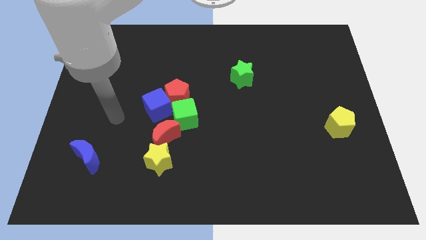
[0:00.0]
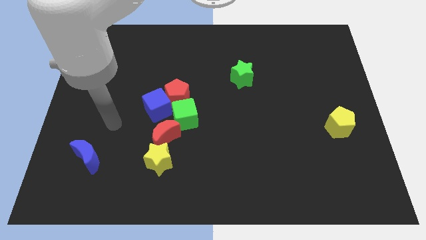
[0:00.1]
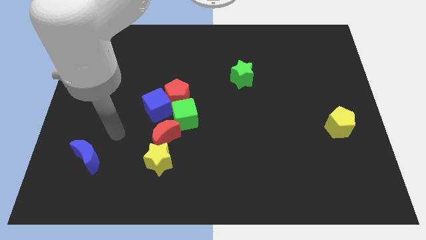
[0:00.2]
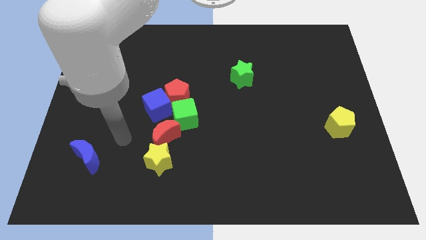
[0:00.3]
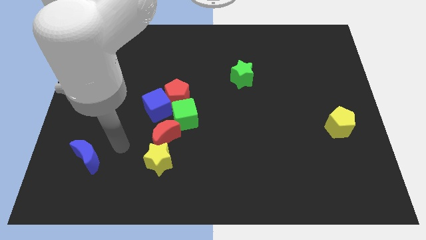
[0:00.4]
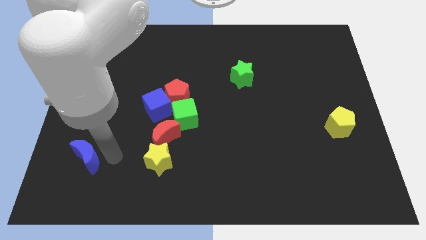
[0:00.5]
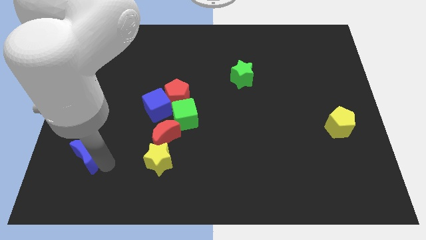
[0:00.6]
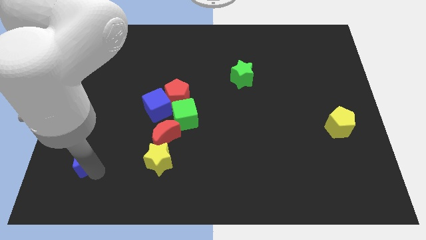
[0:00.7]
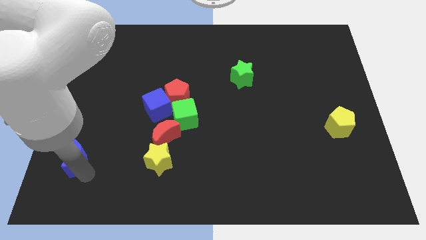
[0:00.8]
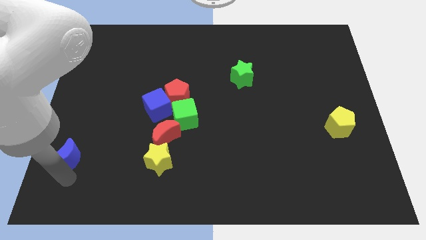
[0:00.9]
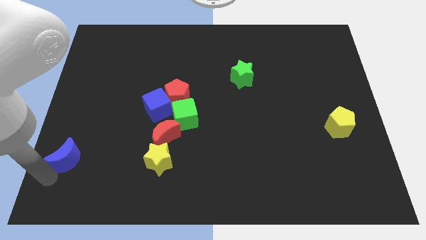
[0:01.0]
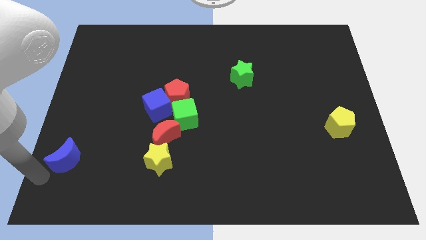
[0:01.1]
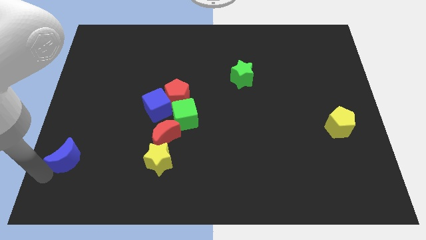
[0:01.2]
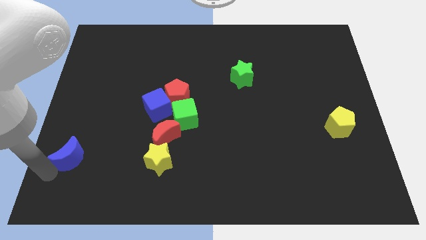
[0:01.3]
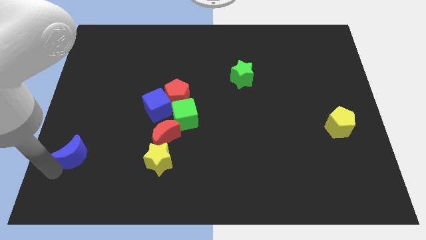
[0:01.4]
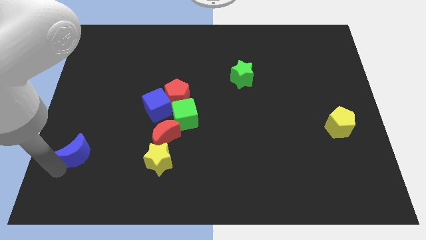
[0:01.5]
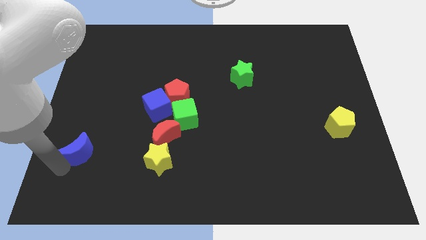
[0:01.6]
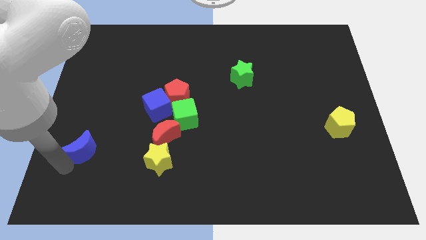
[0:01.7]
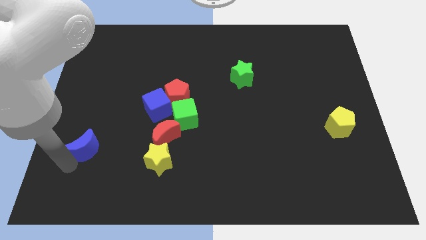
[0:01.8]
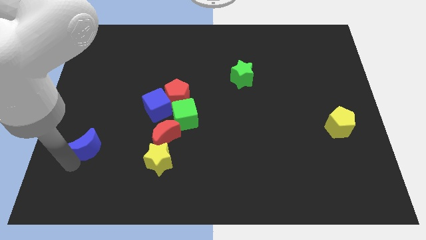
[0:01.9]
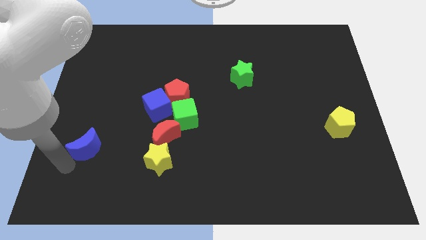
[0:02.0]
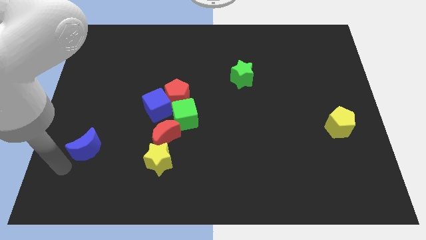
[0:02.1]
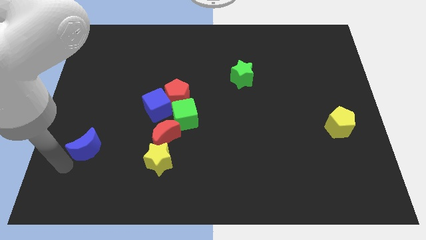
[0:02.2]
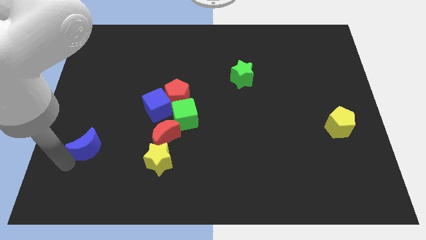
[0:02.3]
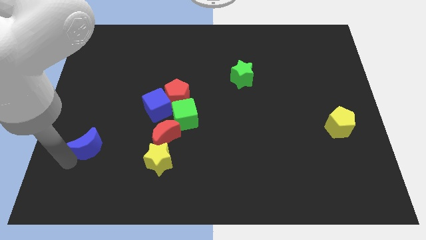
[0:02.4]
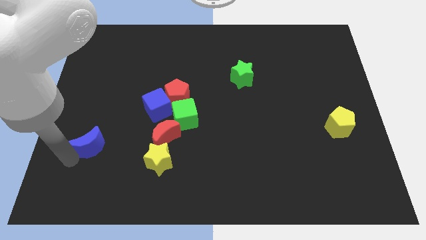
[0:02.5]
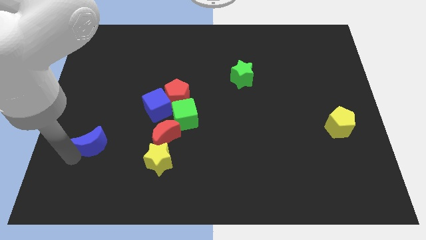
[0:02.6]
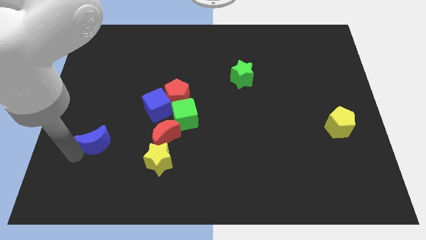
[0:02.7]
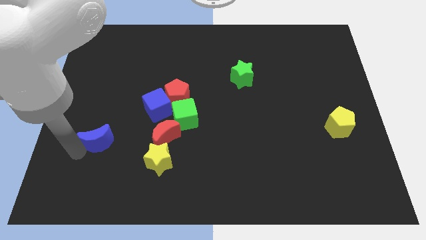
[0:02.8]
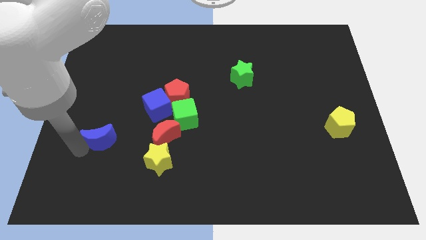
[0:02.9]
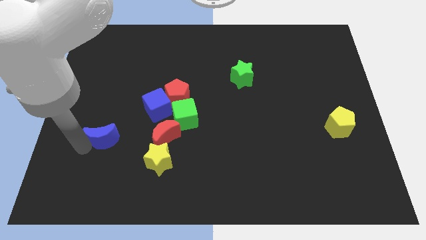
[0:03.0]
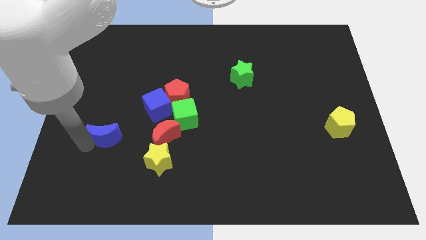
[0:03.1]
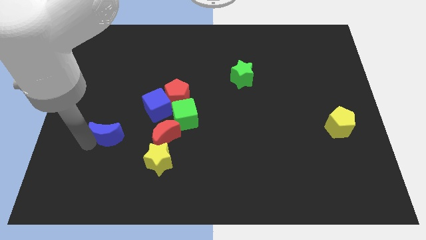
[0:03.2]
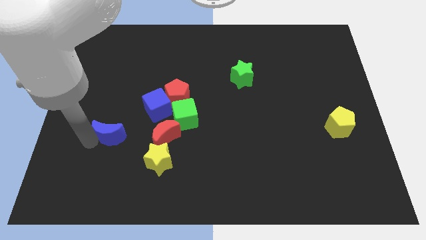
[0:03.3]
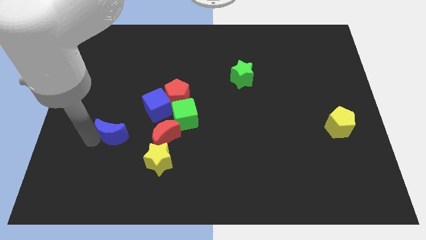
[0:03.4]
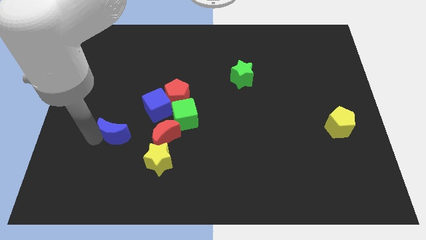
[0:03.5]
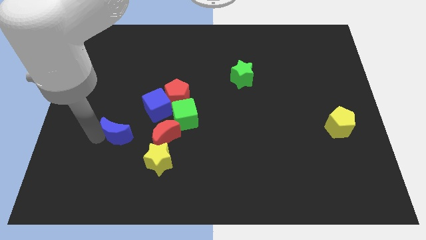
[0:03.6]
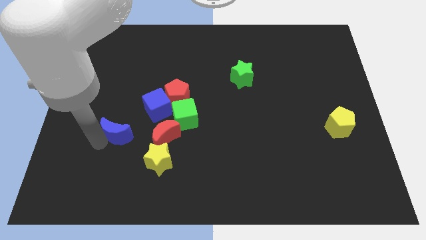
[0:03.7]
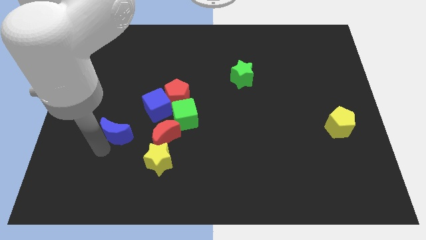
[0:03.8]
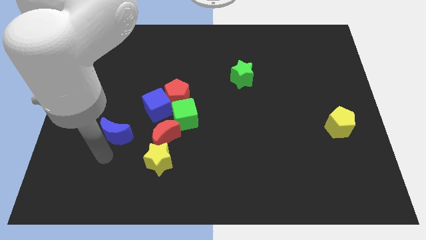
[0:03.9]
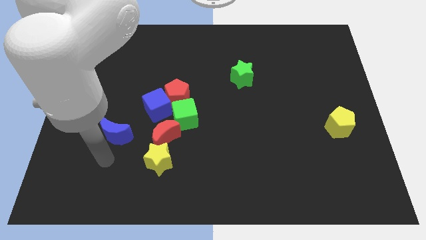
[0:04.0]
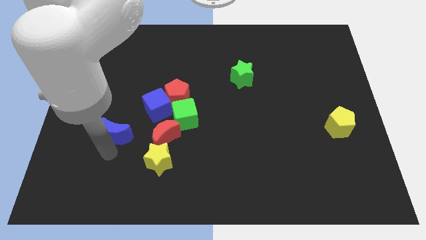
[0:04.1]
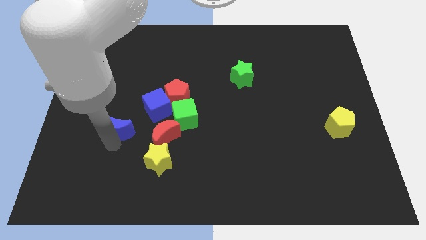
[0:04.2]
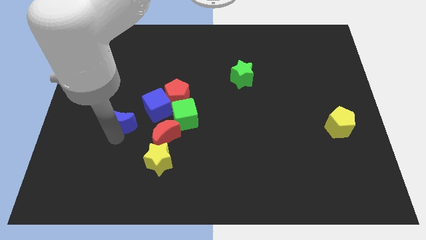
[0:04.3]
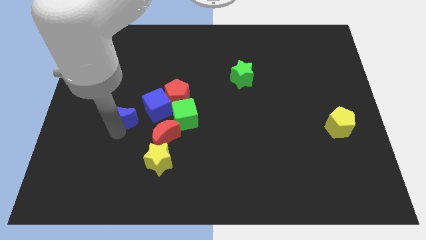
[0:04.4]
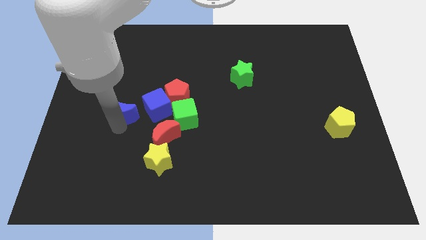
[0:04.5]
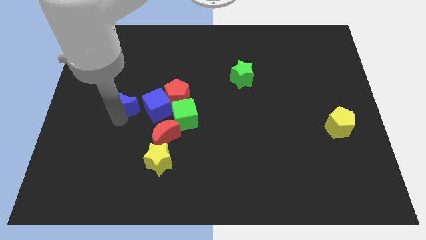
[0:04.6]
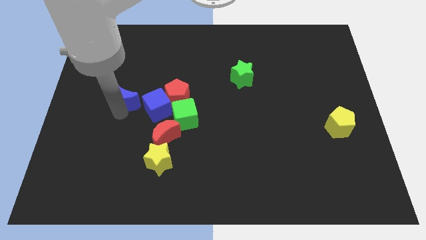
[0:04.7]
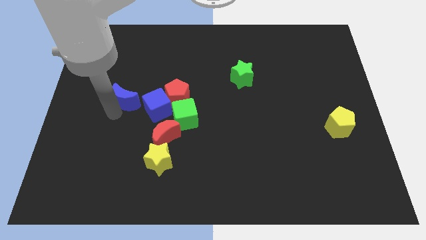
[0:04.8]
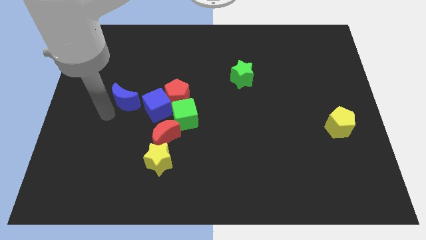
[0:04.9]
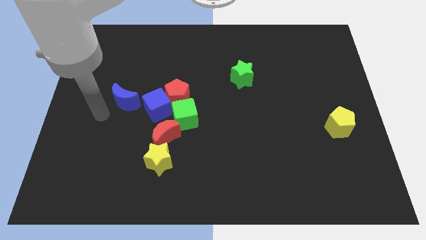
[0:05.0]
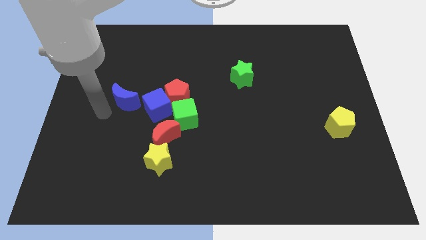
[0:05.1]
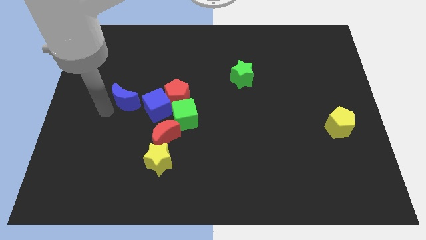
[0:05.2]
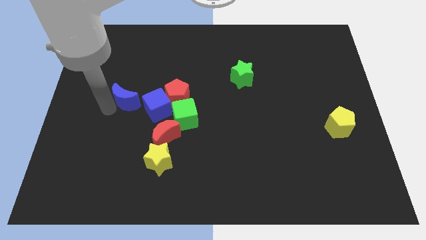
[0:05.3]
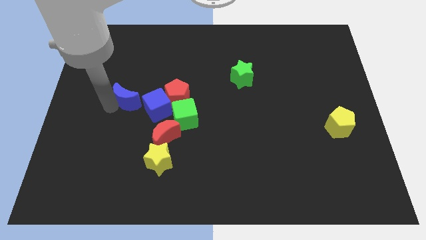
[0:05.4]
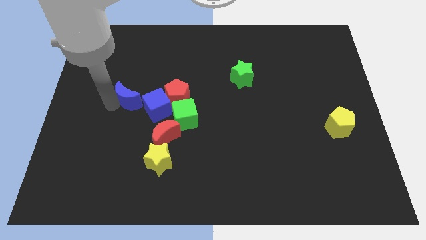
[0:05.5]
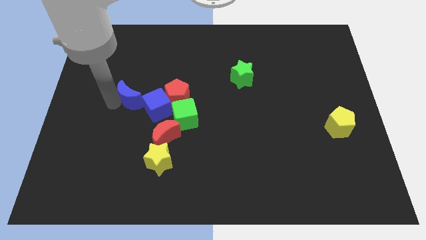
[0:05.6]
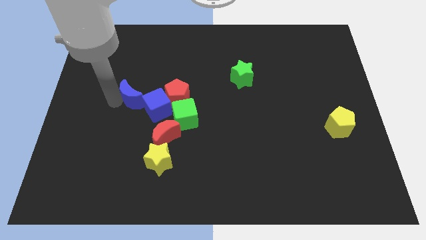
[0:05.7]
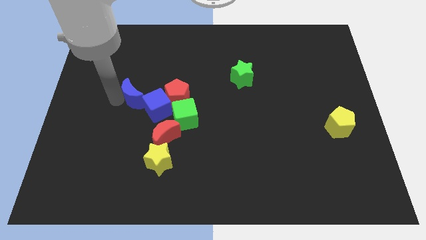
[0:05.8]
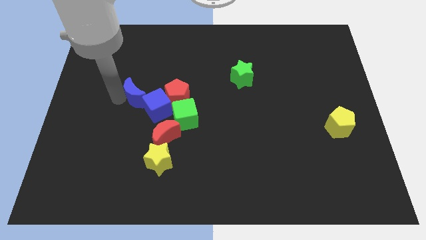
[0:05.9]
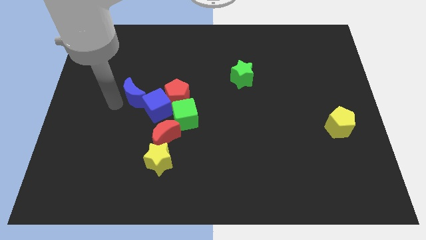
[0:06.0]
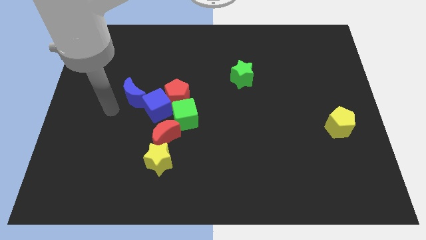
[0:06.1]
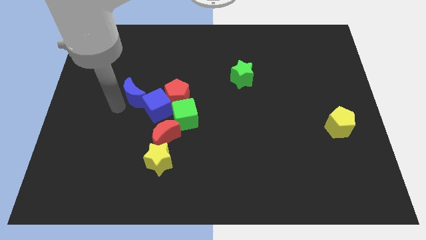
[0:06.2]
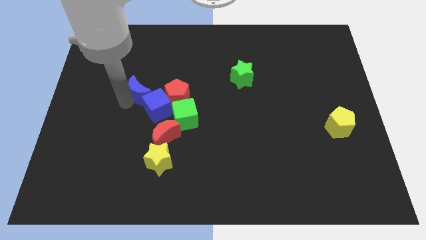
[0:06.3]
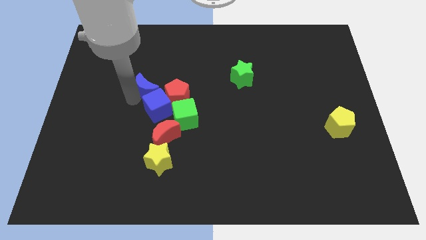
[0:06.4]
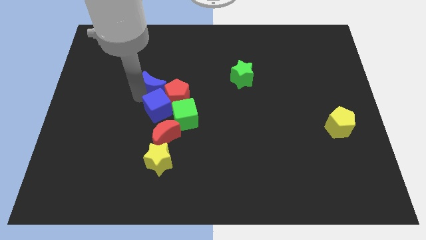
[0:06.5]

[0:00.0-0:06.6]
move the blue moon upwards and to the right

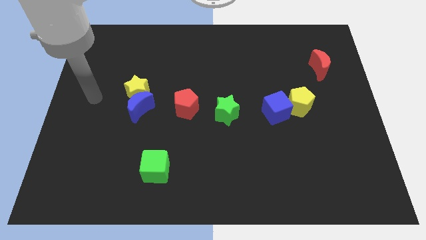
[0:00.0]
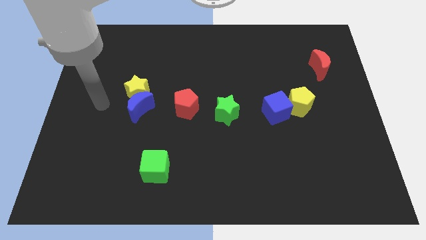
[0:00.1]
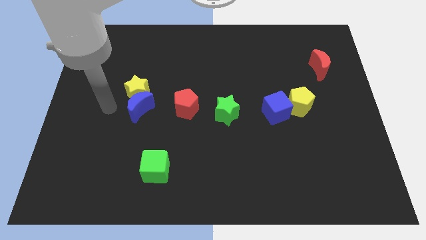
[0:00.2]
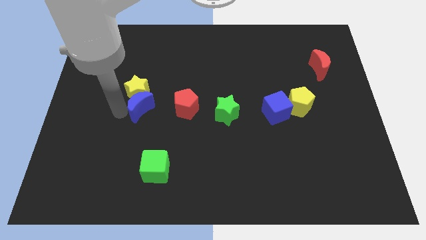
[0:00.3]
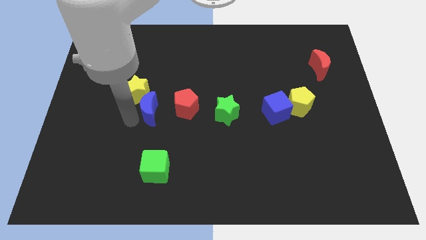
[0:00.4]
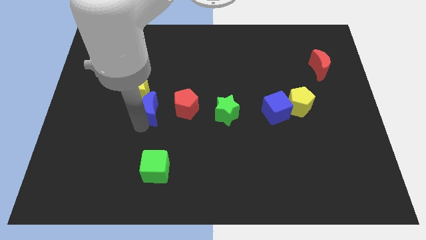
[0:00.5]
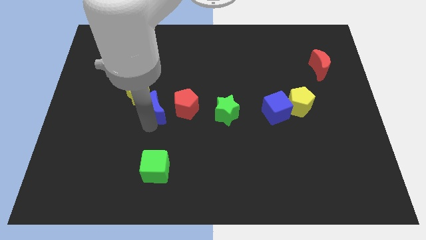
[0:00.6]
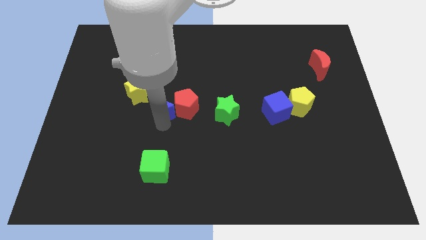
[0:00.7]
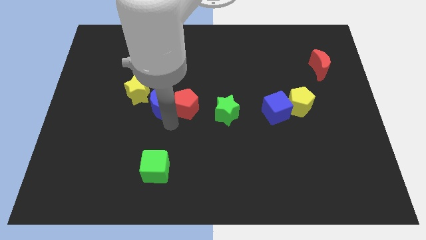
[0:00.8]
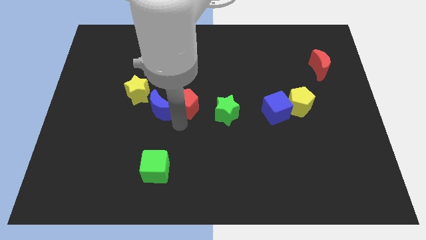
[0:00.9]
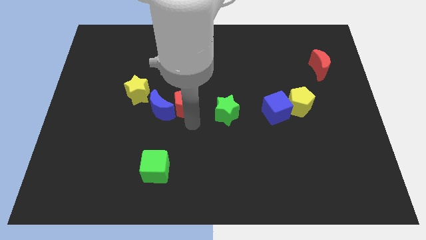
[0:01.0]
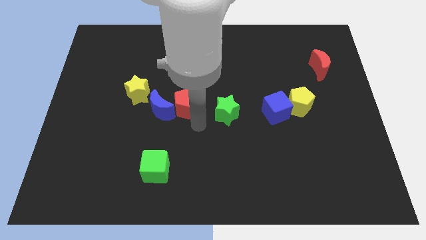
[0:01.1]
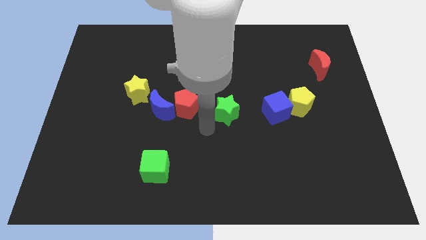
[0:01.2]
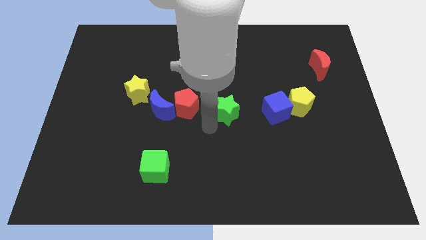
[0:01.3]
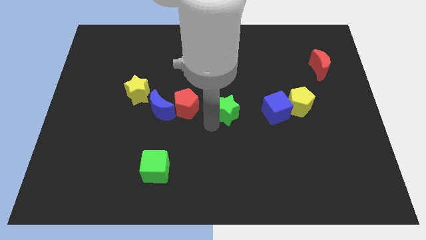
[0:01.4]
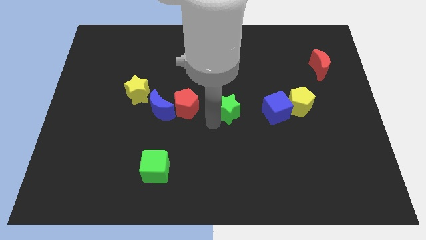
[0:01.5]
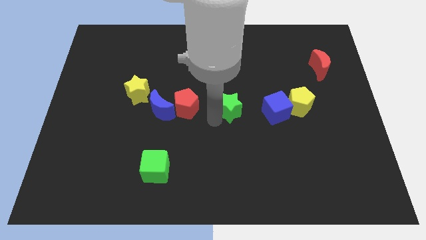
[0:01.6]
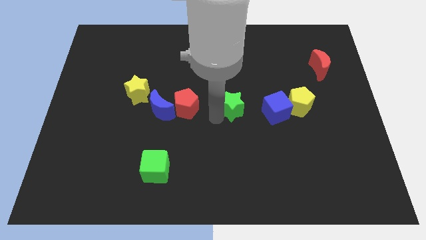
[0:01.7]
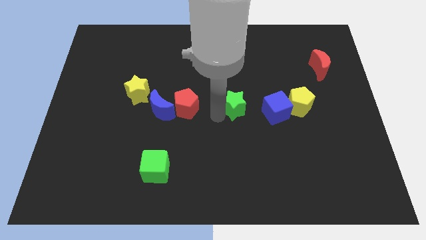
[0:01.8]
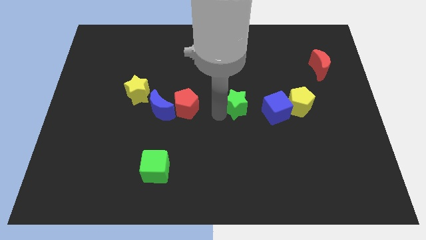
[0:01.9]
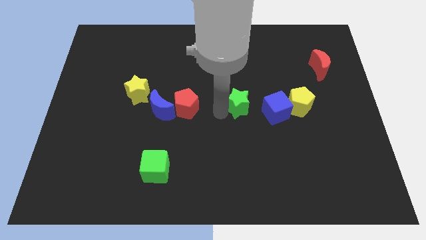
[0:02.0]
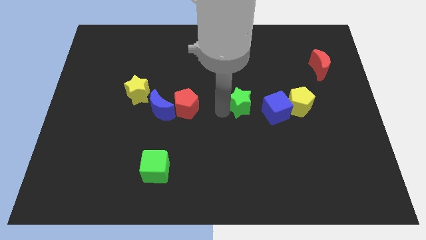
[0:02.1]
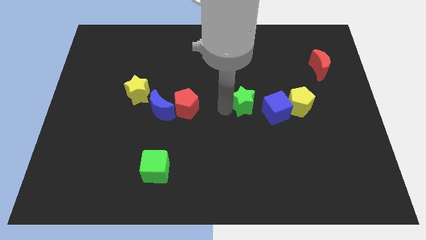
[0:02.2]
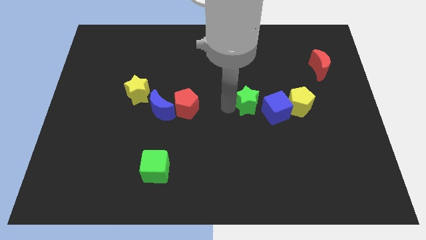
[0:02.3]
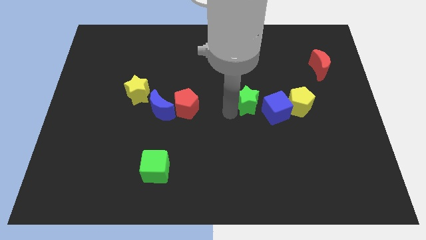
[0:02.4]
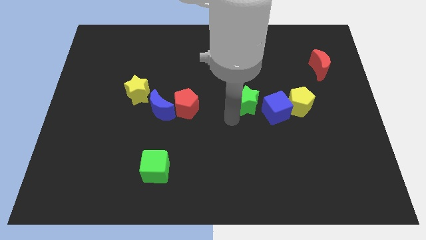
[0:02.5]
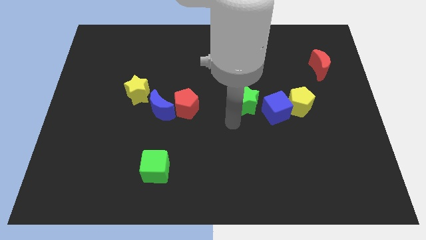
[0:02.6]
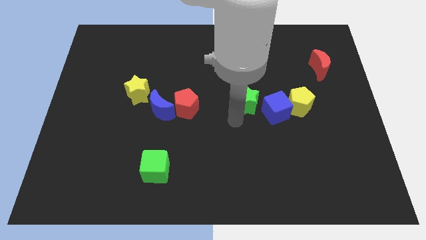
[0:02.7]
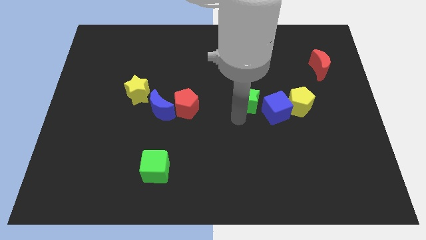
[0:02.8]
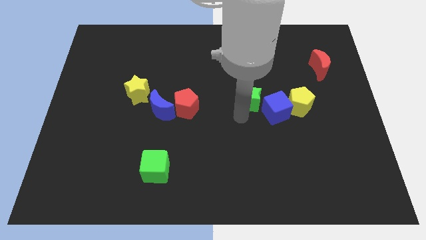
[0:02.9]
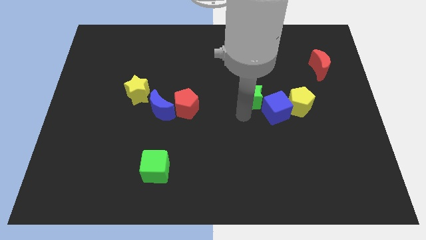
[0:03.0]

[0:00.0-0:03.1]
slide the green star a little up and then right
